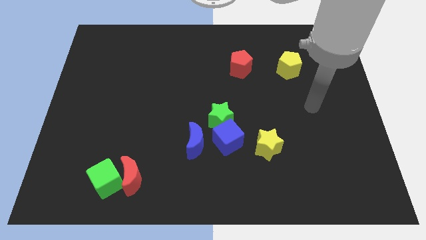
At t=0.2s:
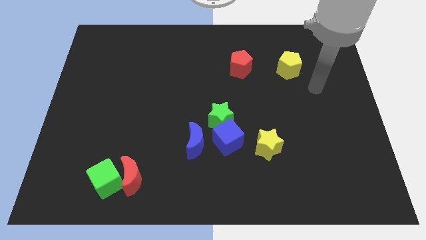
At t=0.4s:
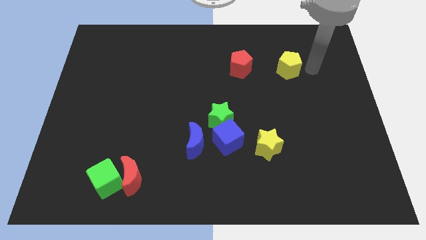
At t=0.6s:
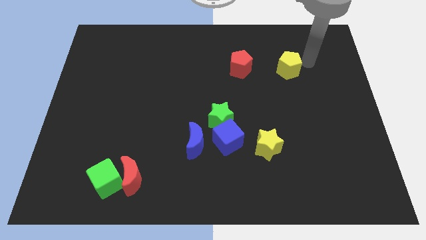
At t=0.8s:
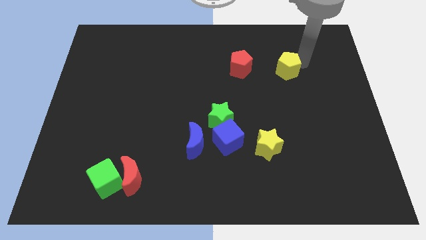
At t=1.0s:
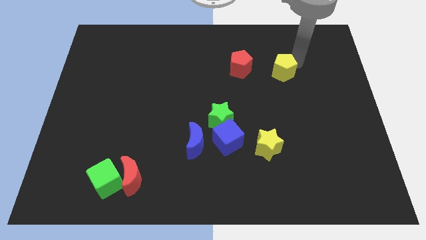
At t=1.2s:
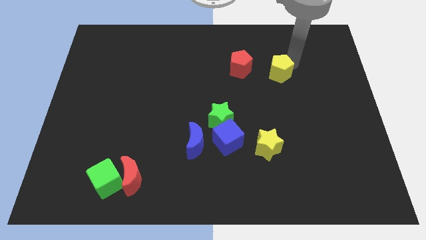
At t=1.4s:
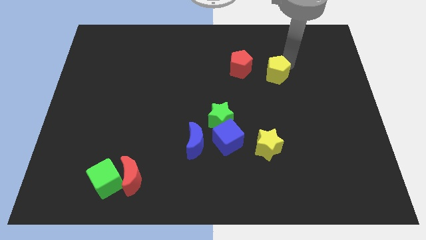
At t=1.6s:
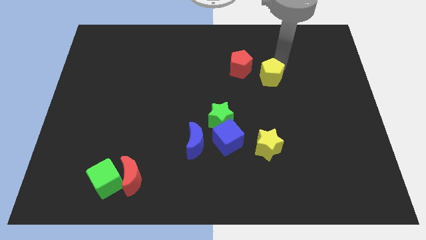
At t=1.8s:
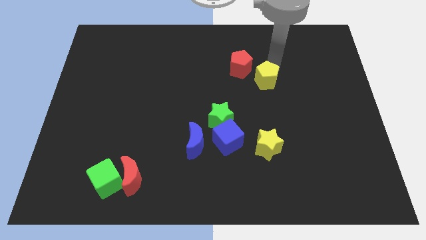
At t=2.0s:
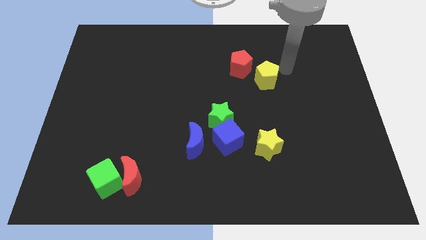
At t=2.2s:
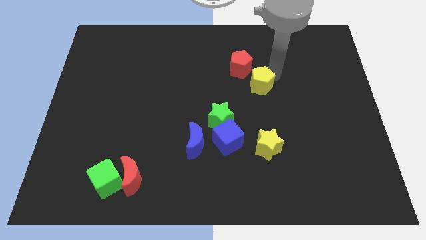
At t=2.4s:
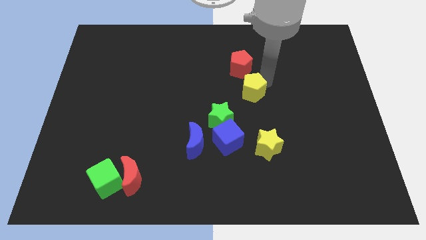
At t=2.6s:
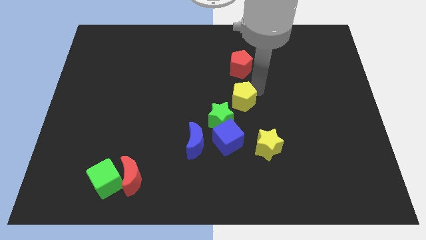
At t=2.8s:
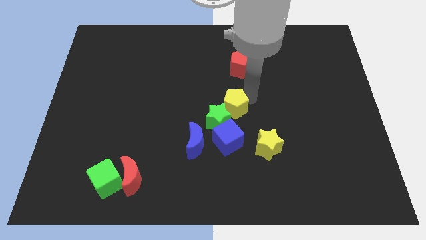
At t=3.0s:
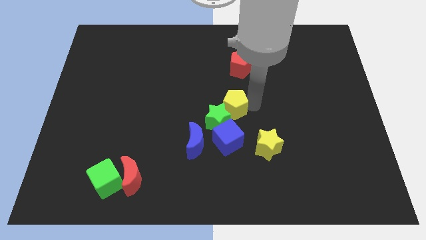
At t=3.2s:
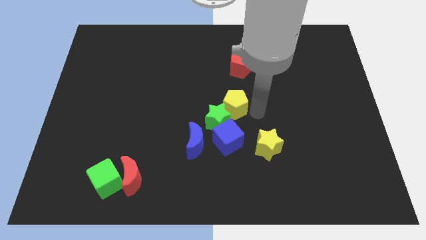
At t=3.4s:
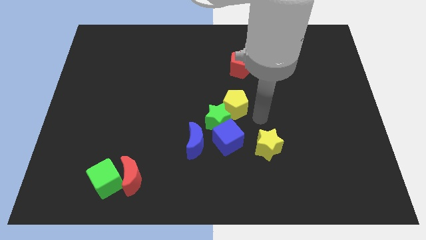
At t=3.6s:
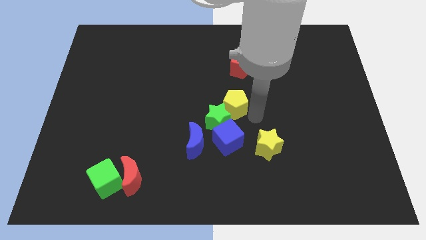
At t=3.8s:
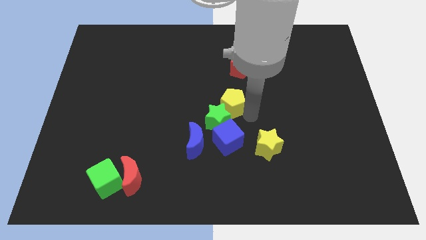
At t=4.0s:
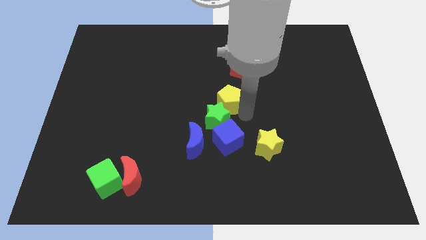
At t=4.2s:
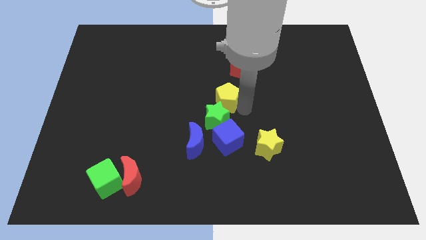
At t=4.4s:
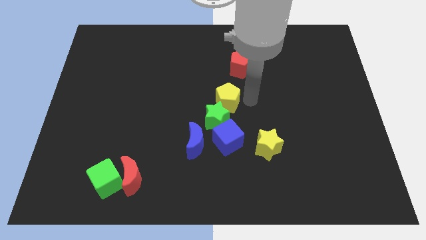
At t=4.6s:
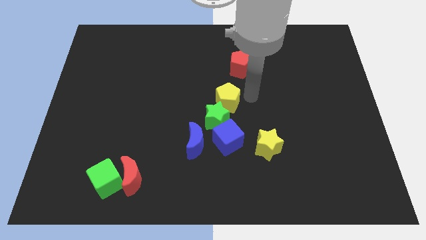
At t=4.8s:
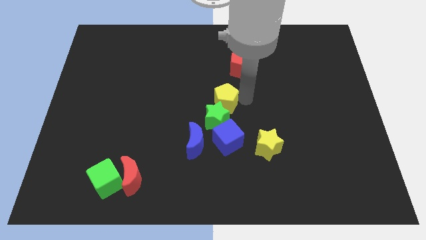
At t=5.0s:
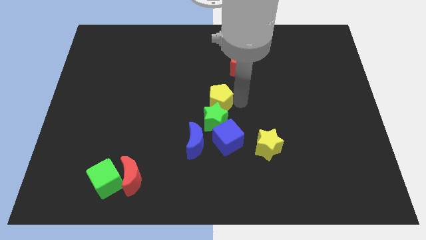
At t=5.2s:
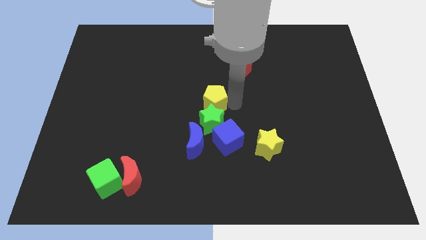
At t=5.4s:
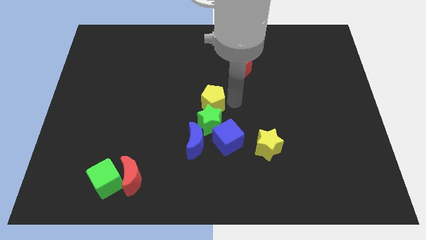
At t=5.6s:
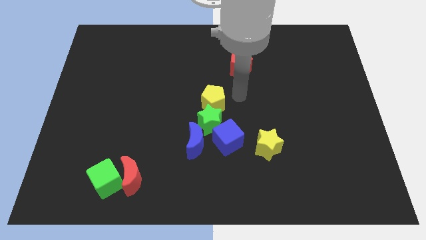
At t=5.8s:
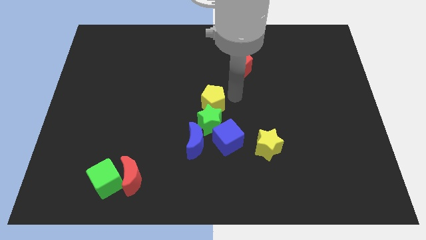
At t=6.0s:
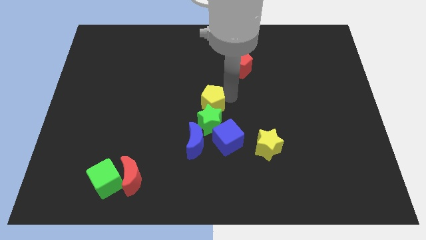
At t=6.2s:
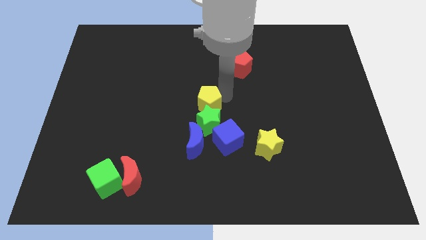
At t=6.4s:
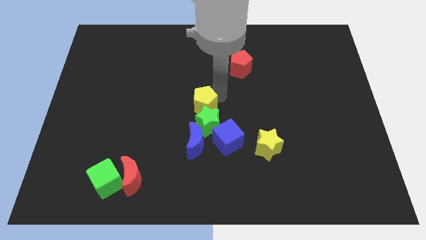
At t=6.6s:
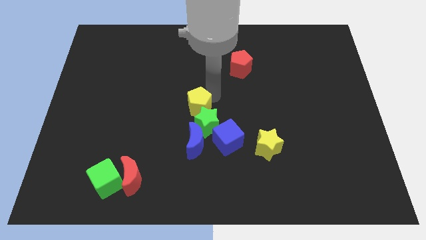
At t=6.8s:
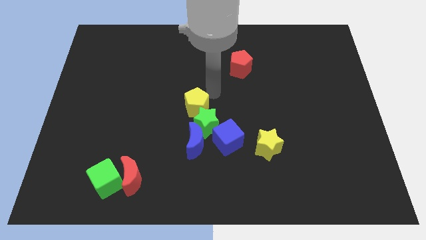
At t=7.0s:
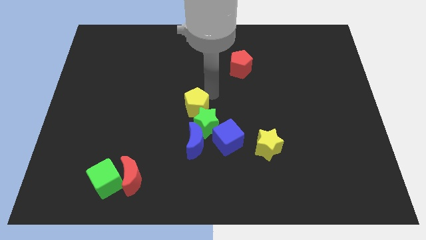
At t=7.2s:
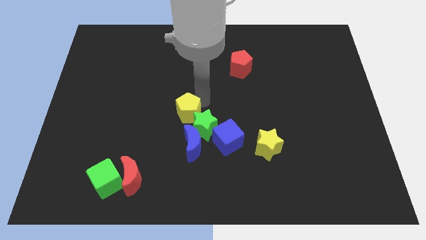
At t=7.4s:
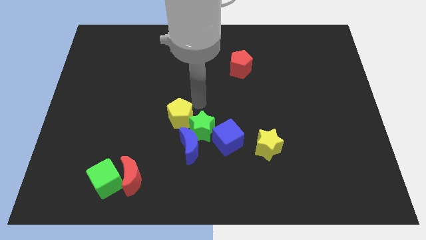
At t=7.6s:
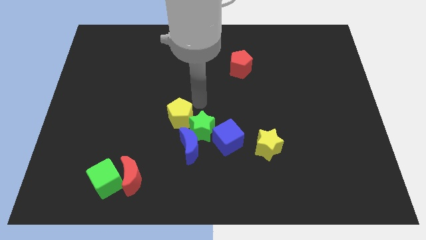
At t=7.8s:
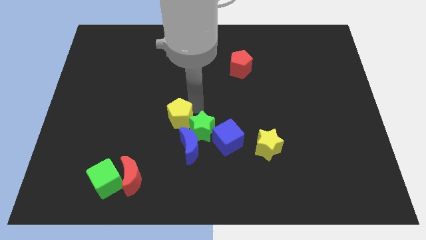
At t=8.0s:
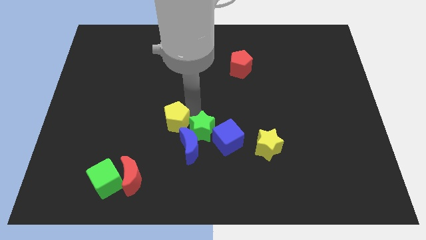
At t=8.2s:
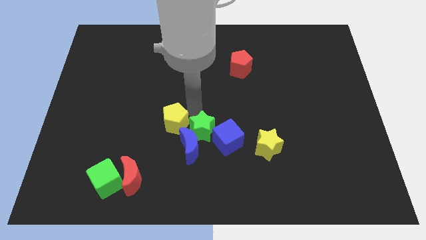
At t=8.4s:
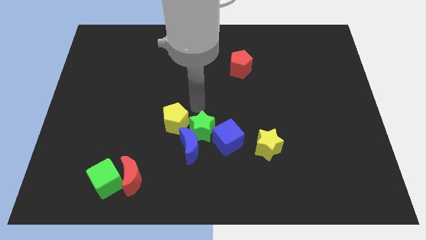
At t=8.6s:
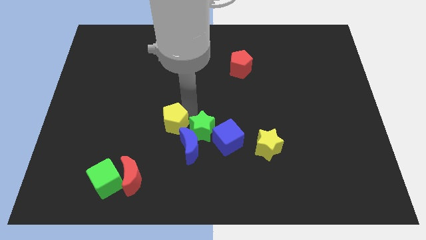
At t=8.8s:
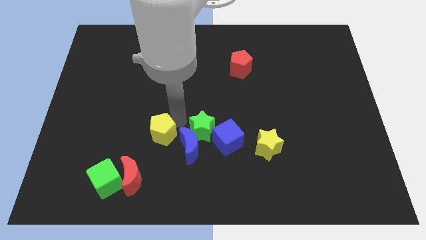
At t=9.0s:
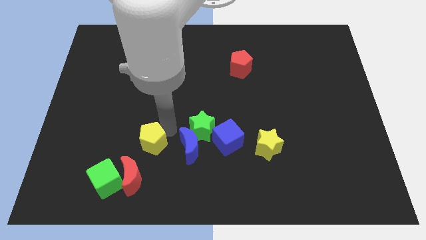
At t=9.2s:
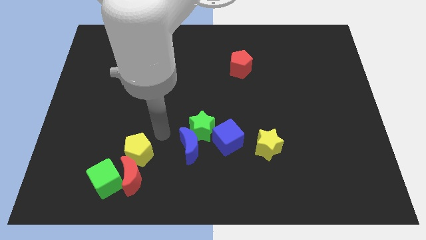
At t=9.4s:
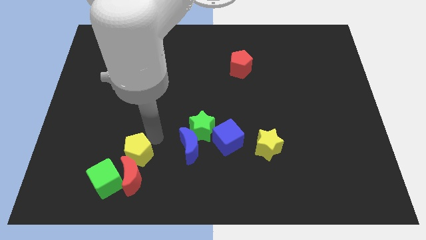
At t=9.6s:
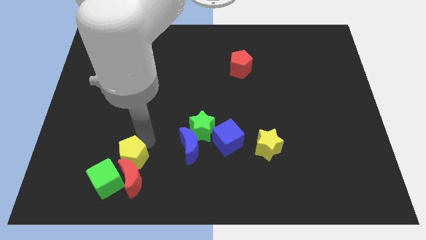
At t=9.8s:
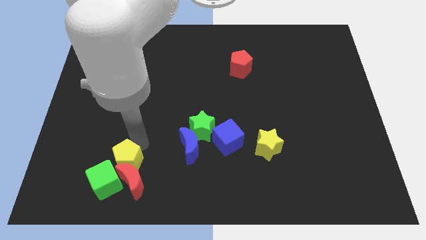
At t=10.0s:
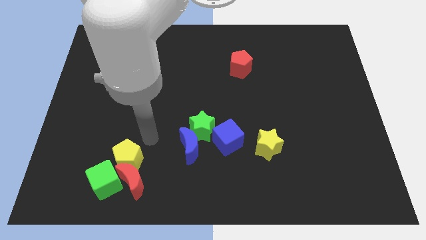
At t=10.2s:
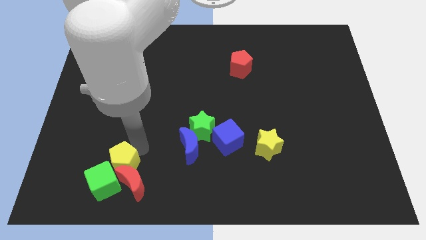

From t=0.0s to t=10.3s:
put the yellow pentagon next to the green cube

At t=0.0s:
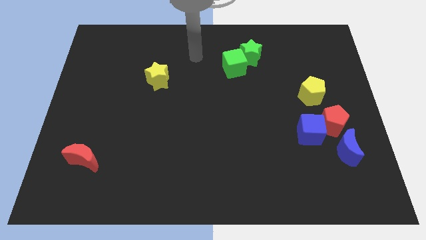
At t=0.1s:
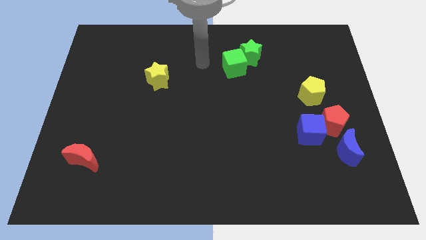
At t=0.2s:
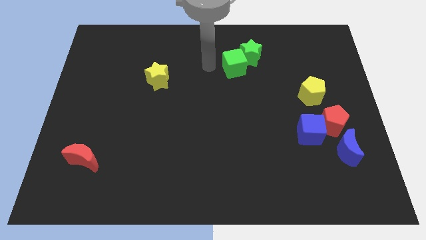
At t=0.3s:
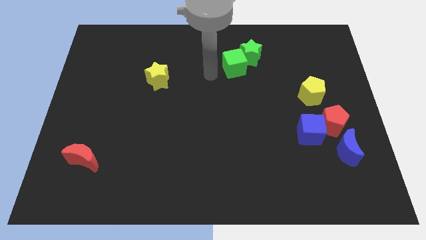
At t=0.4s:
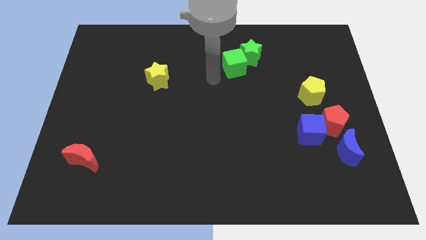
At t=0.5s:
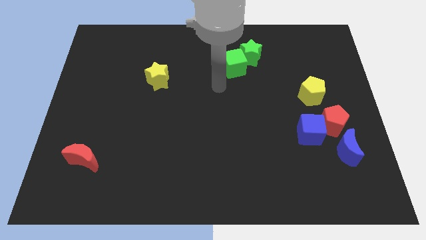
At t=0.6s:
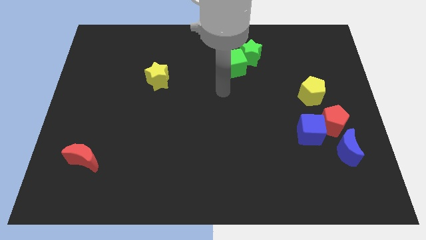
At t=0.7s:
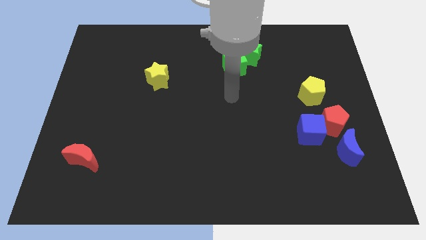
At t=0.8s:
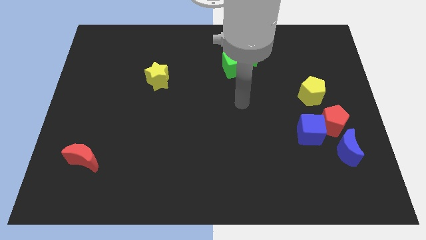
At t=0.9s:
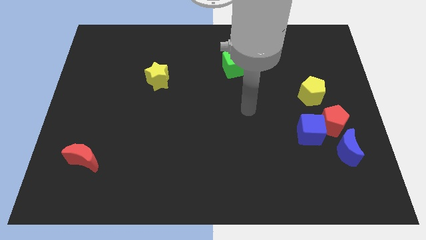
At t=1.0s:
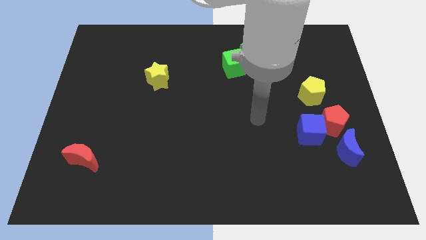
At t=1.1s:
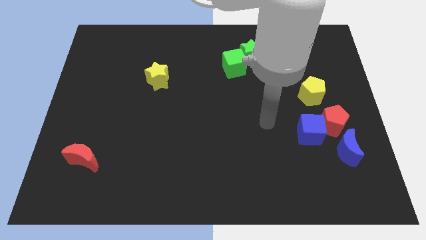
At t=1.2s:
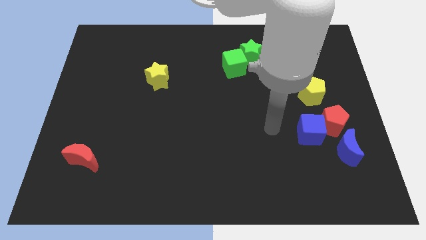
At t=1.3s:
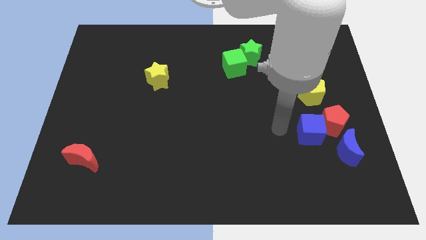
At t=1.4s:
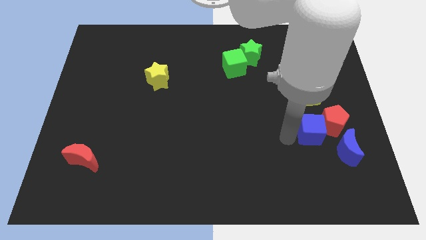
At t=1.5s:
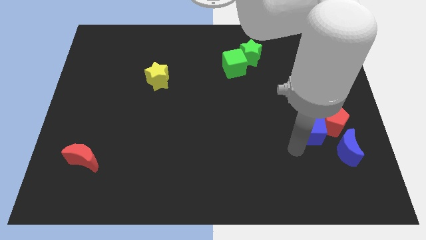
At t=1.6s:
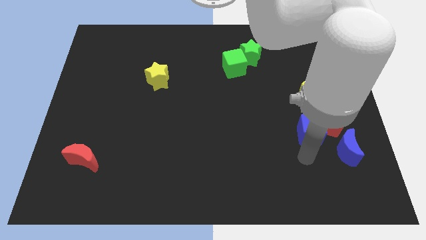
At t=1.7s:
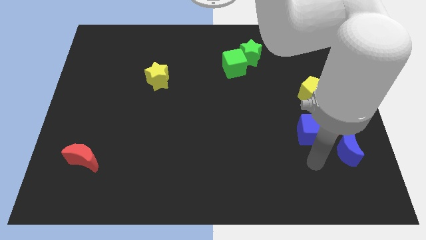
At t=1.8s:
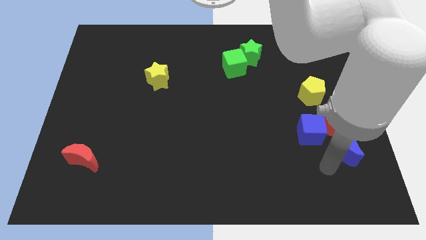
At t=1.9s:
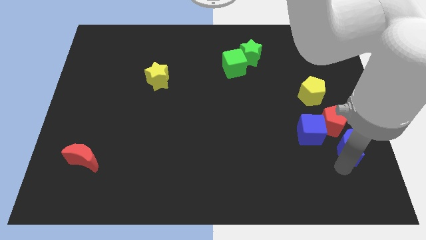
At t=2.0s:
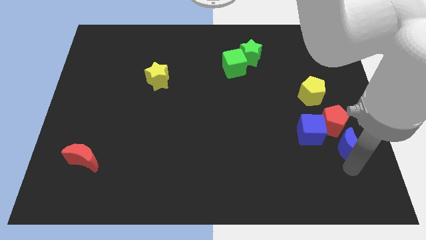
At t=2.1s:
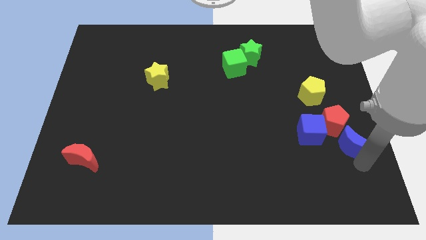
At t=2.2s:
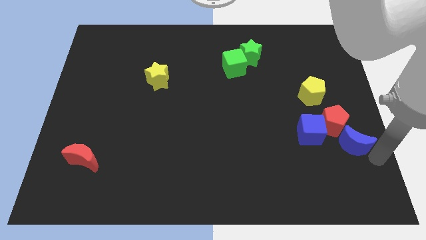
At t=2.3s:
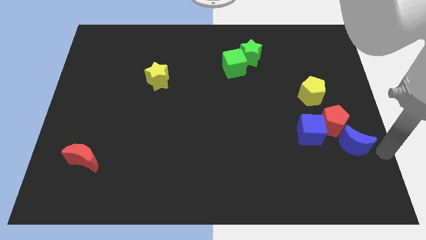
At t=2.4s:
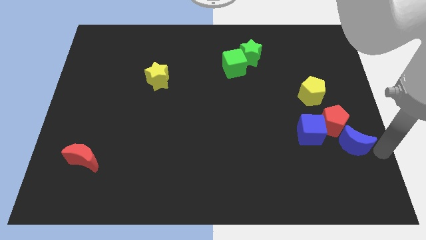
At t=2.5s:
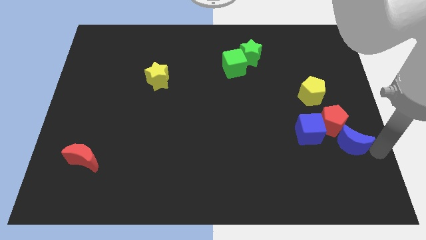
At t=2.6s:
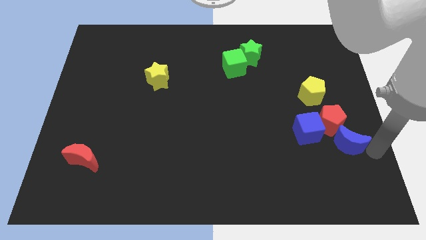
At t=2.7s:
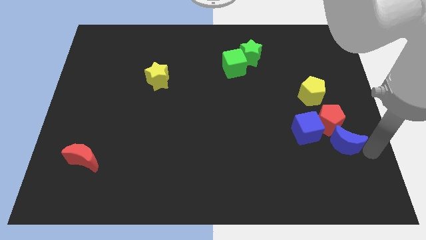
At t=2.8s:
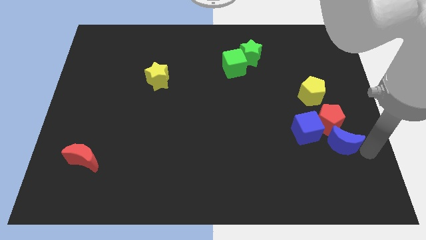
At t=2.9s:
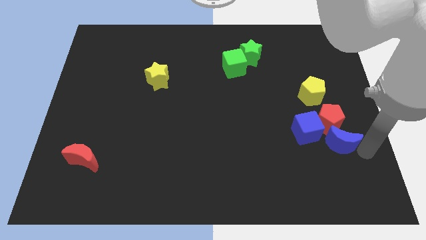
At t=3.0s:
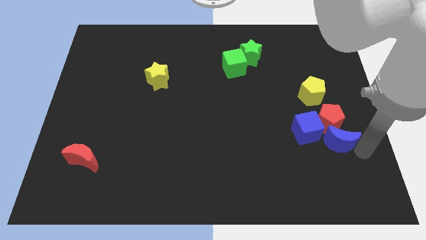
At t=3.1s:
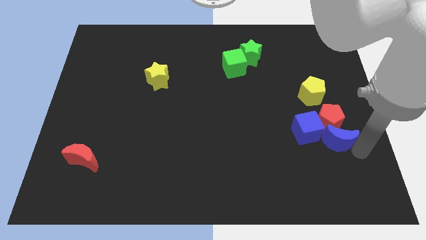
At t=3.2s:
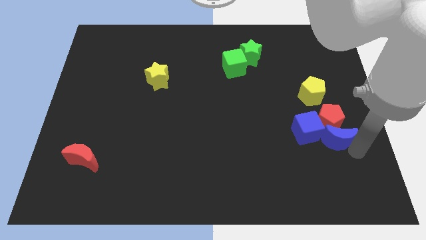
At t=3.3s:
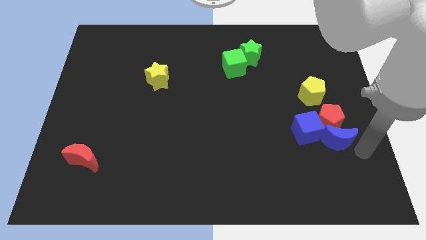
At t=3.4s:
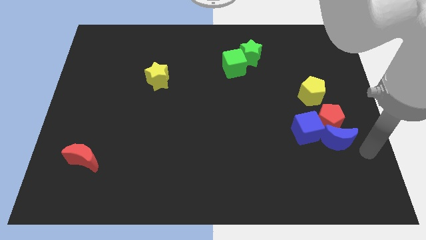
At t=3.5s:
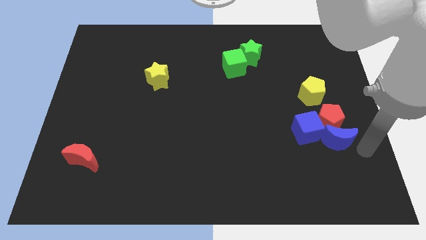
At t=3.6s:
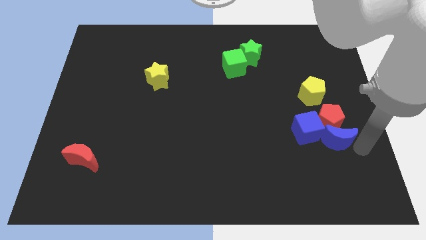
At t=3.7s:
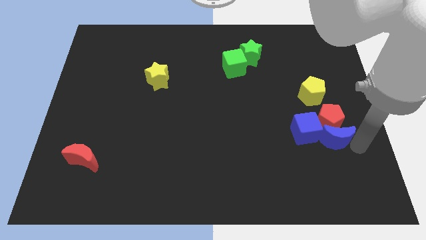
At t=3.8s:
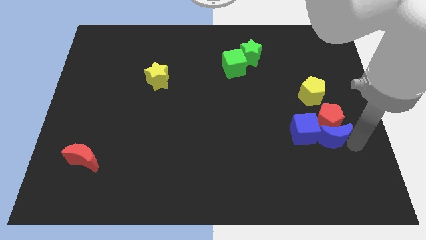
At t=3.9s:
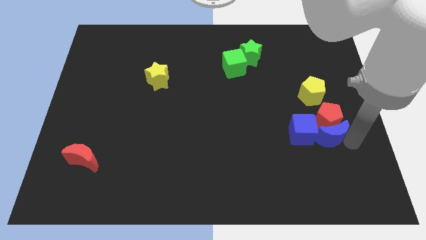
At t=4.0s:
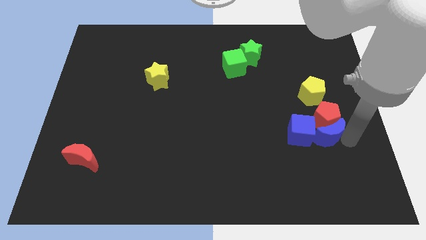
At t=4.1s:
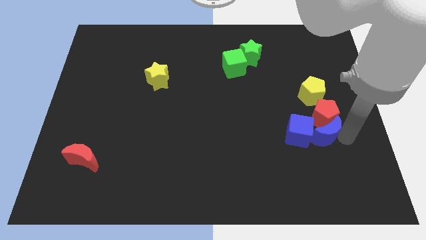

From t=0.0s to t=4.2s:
push the blue moon to the blue cube
